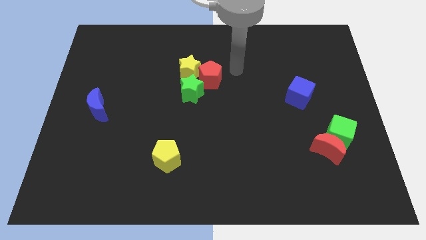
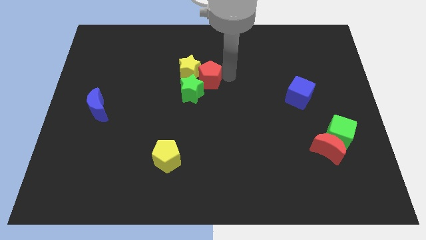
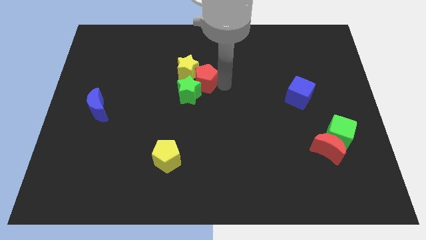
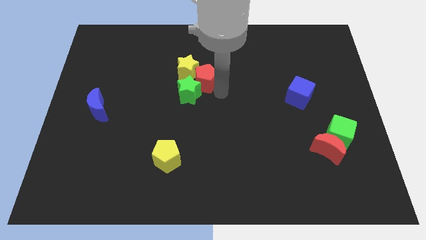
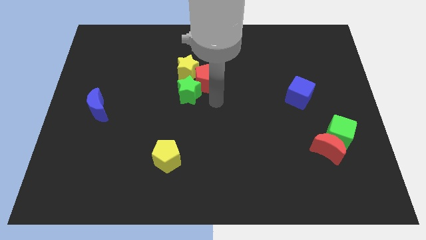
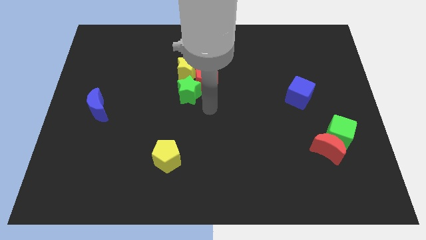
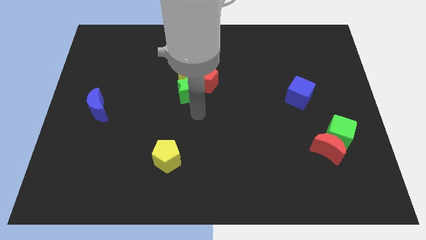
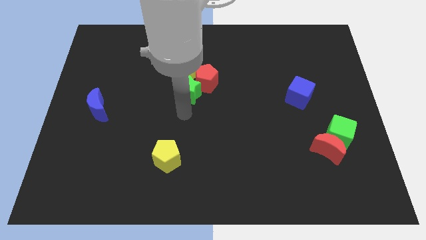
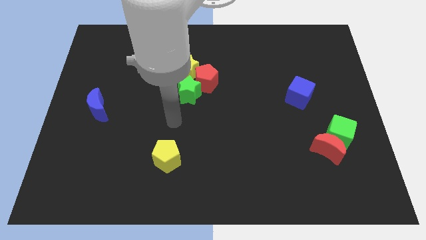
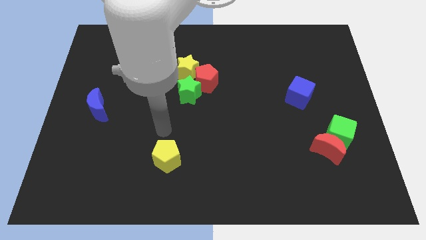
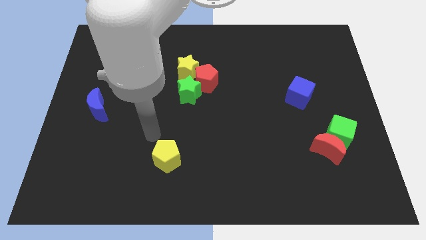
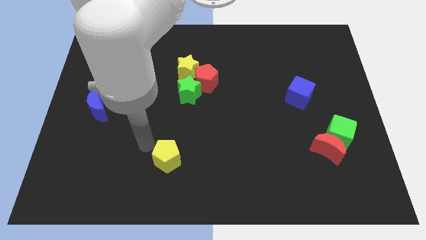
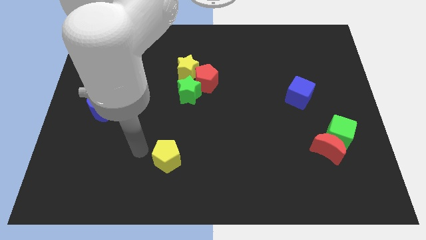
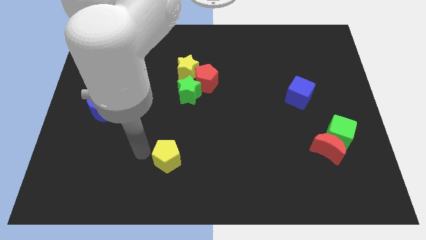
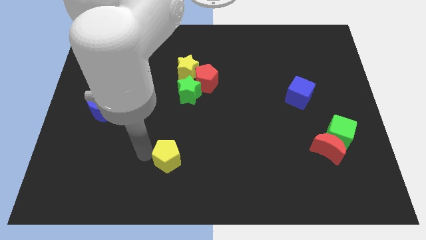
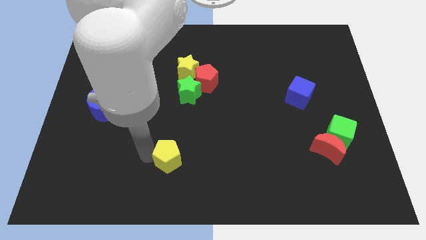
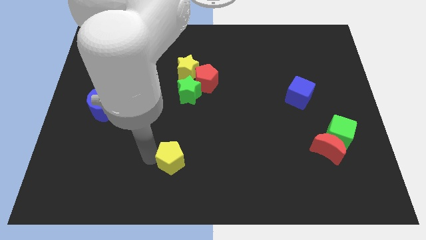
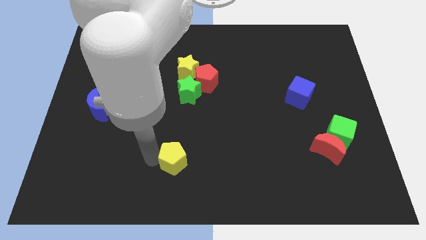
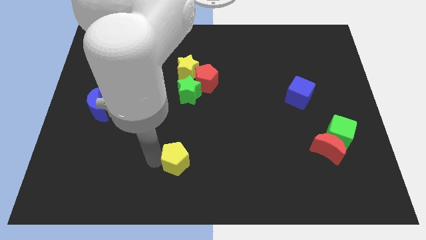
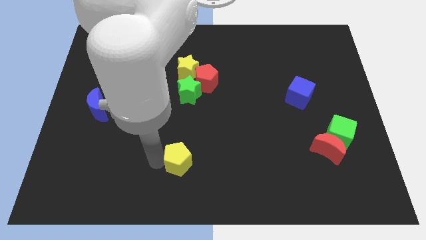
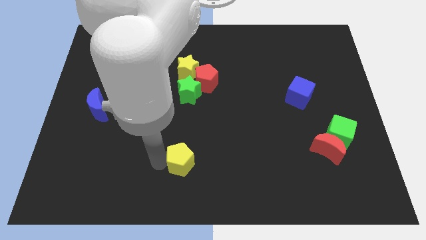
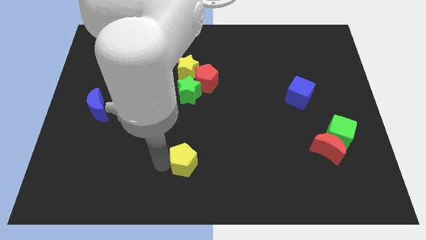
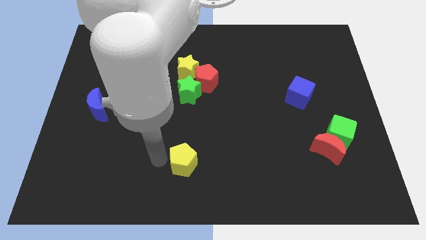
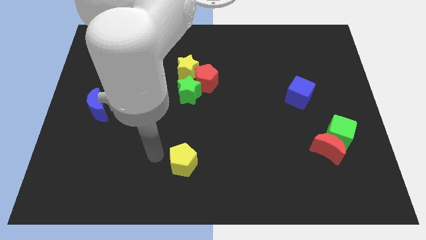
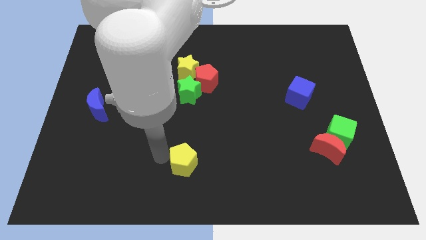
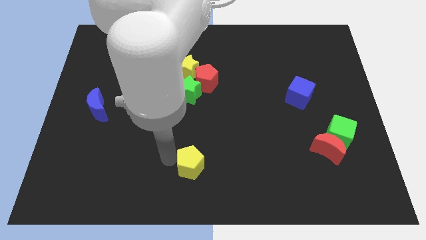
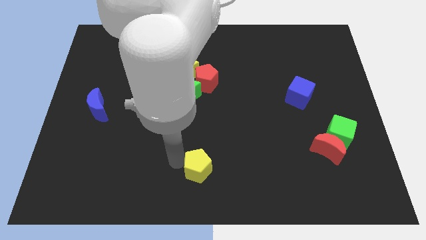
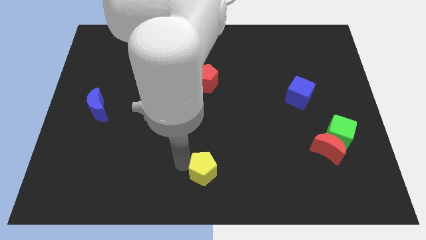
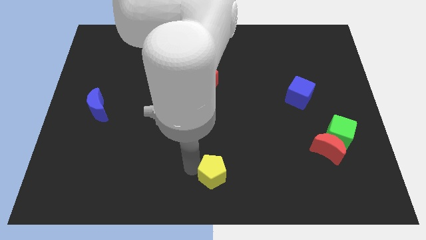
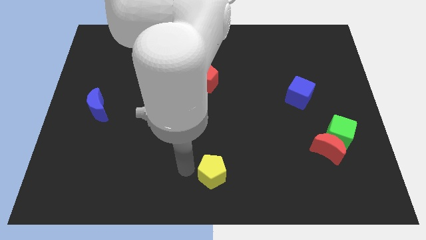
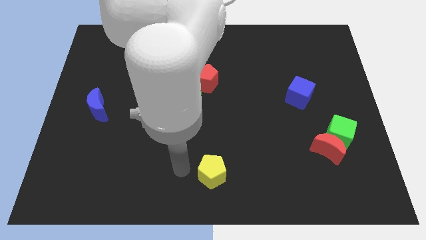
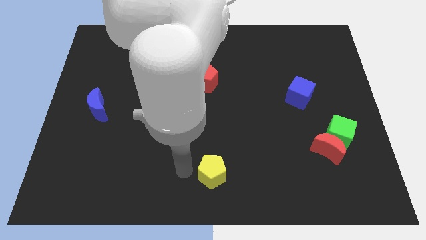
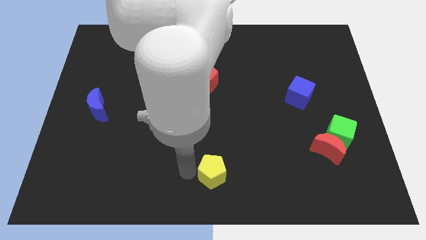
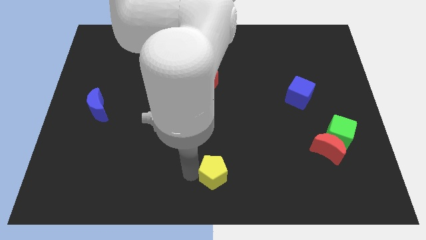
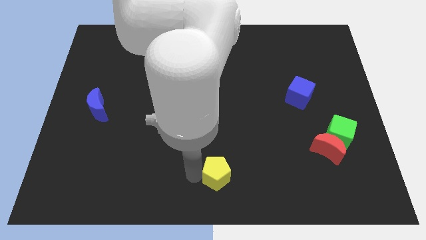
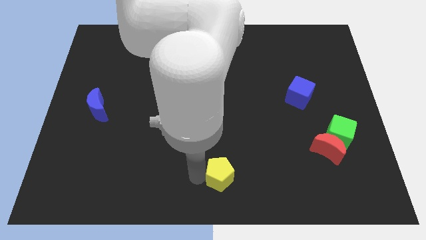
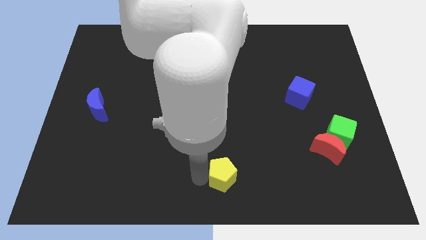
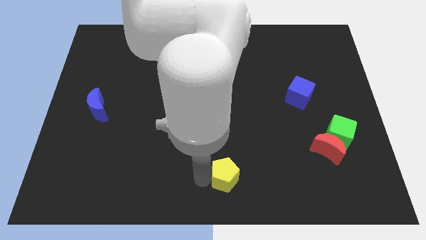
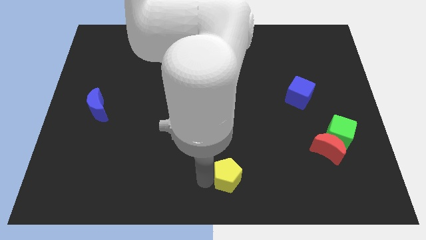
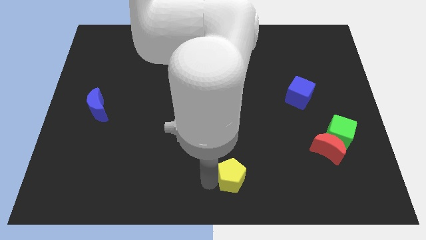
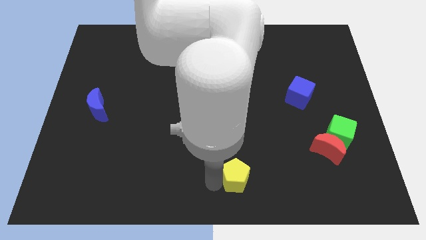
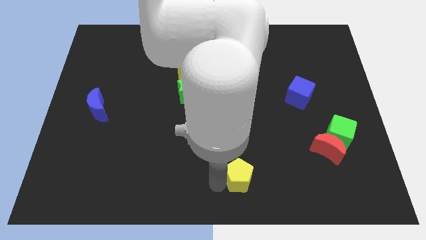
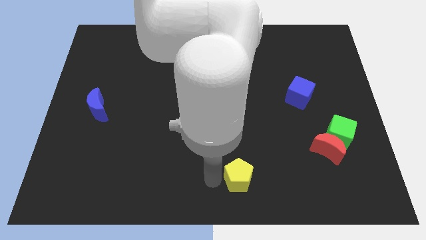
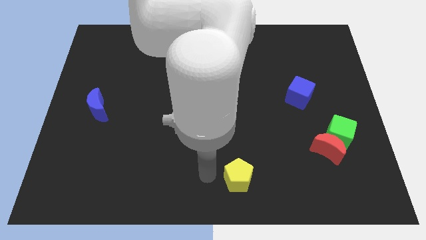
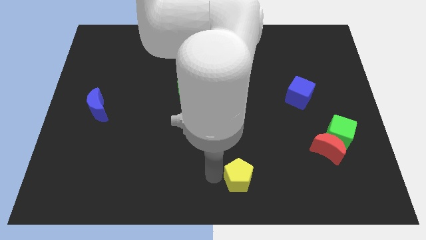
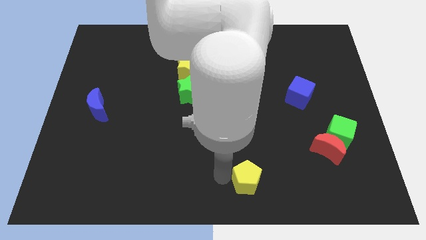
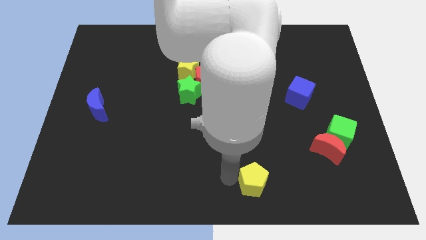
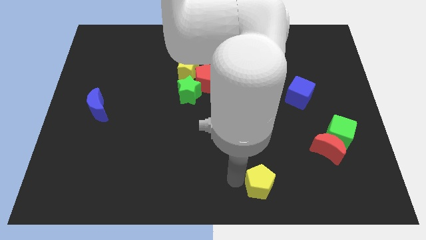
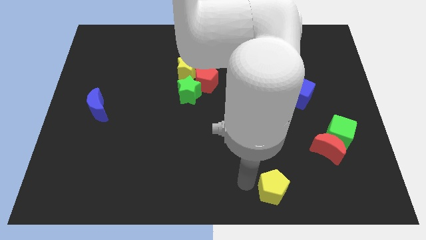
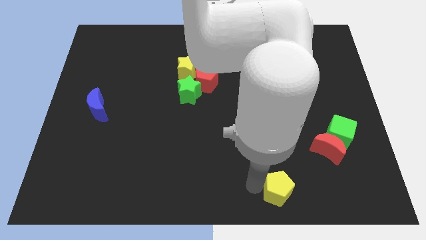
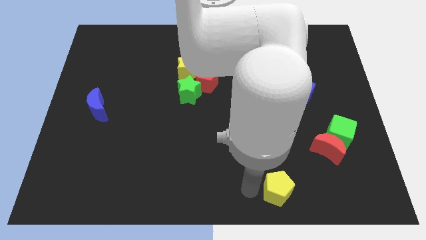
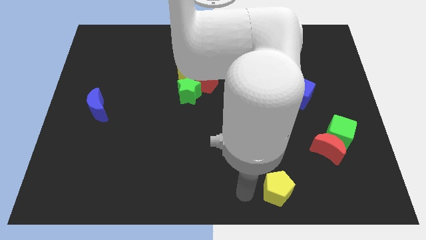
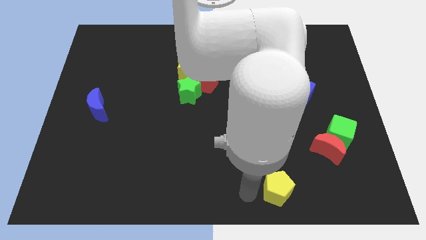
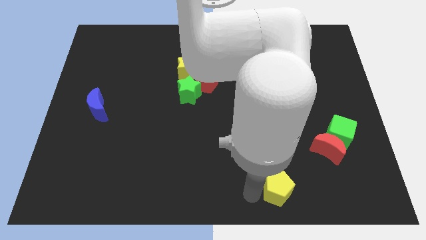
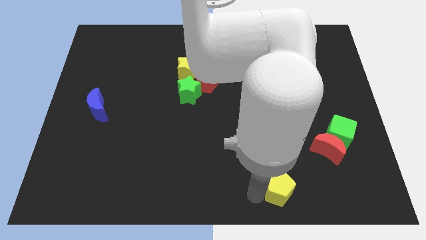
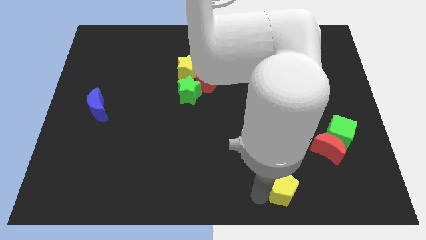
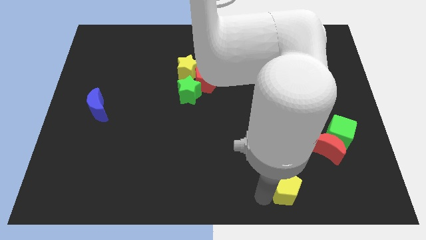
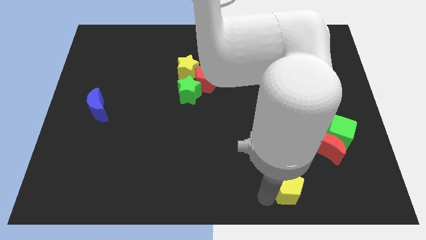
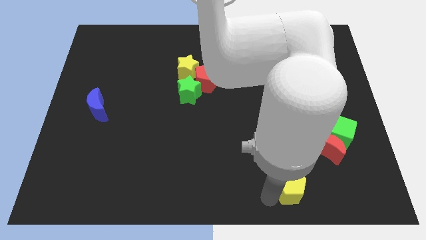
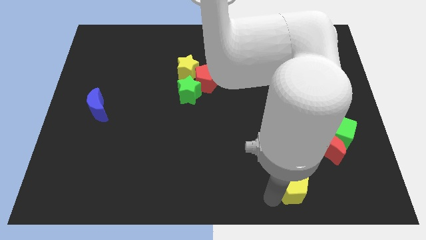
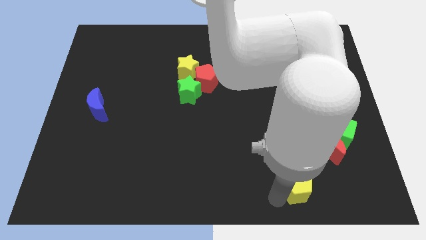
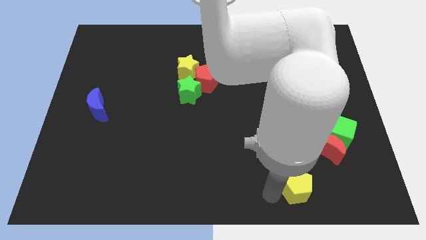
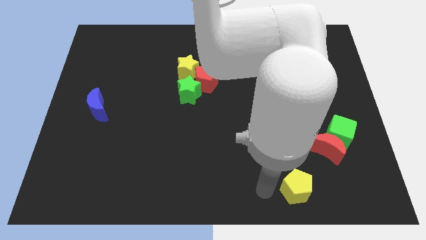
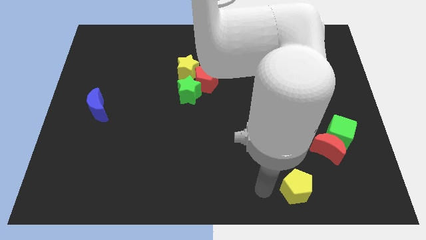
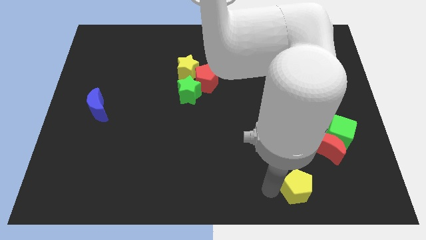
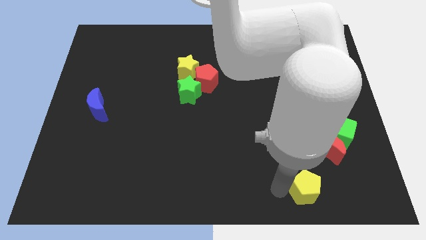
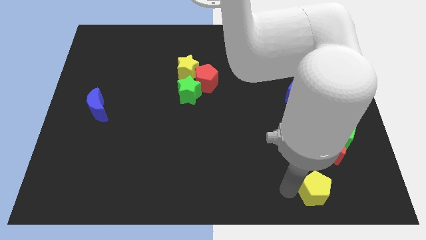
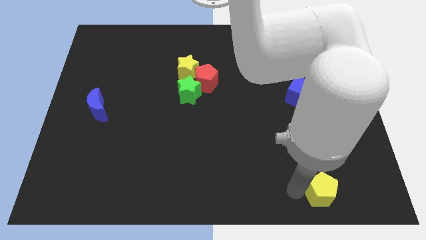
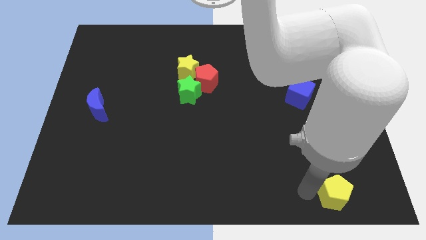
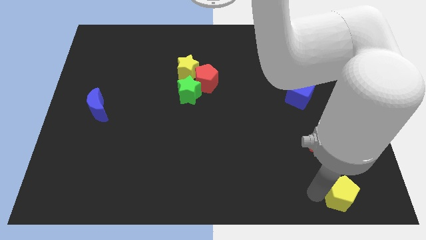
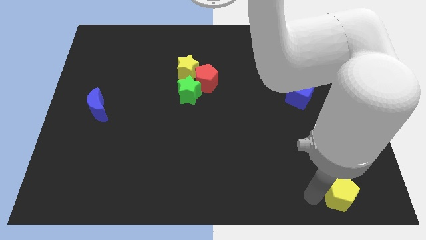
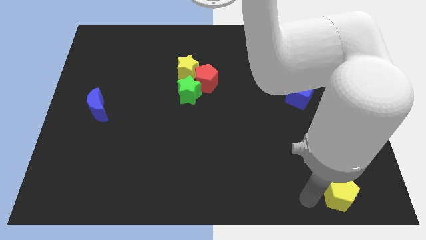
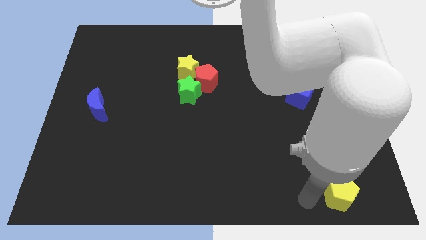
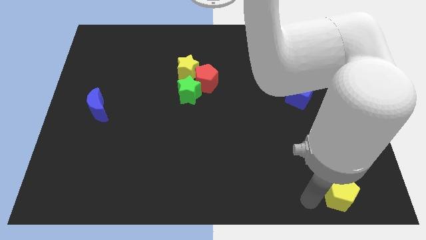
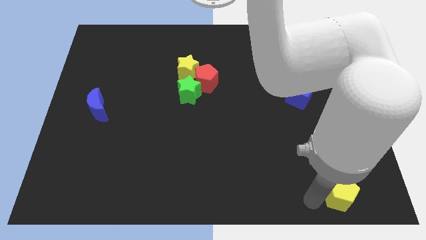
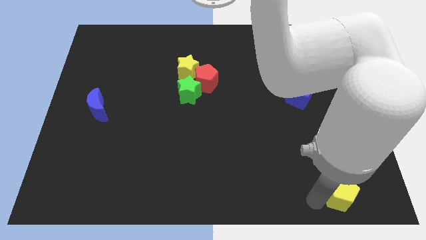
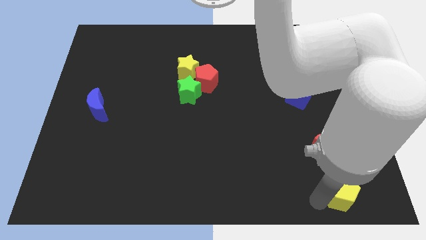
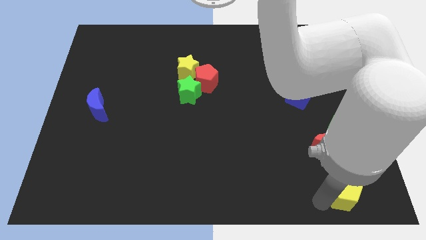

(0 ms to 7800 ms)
slide the yellow pentagon to the bottom right corner
